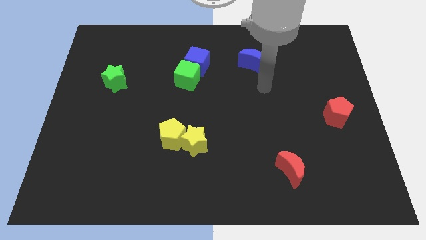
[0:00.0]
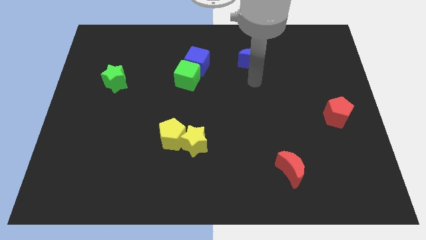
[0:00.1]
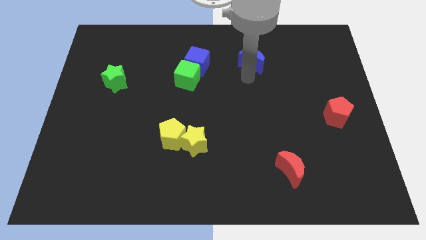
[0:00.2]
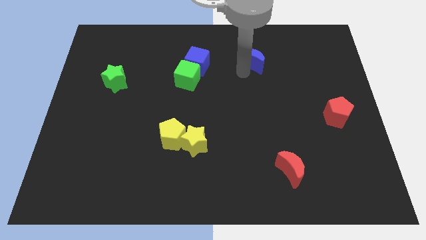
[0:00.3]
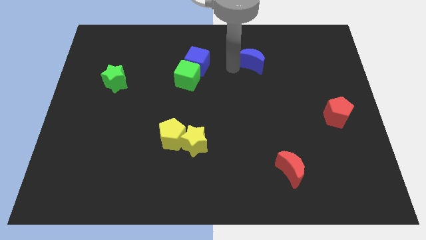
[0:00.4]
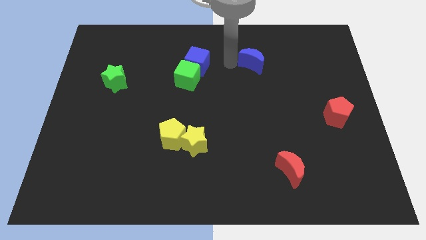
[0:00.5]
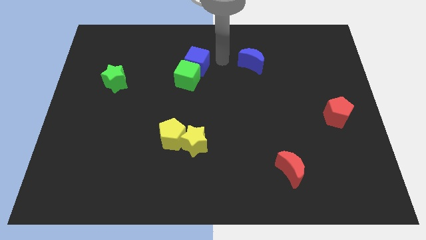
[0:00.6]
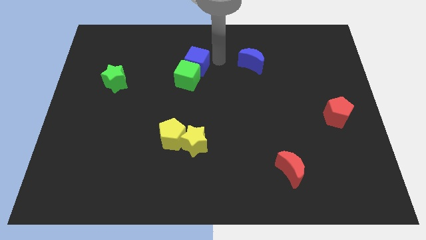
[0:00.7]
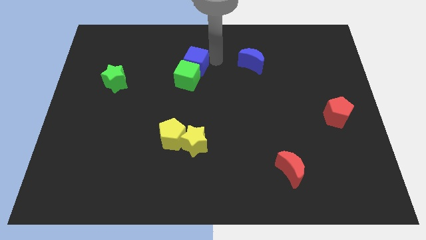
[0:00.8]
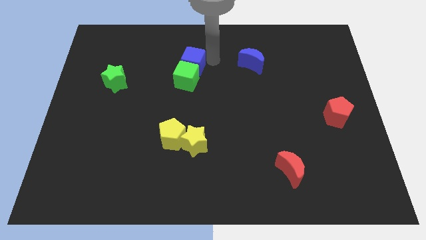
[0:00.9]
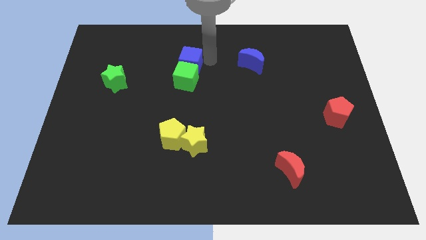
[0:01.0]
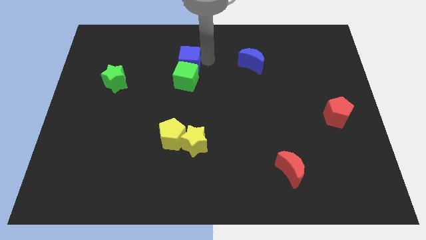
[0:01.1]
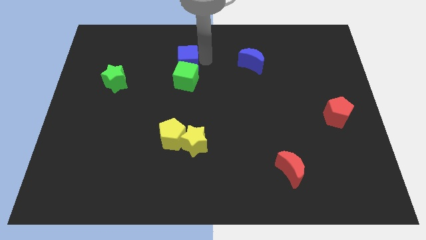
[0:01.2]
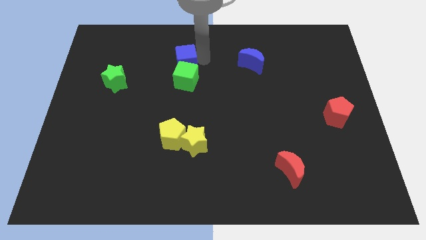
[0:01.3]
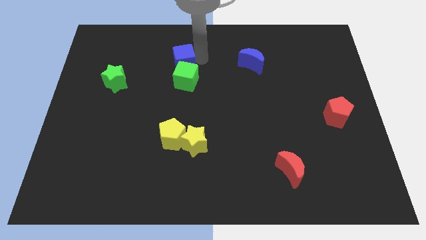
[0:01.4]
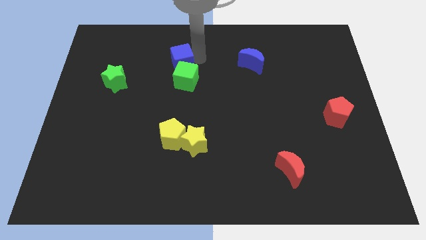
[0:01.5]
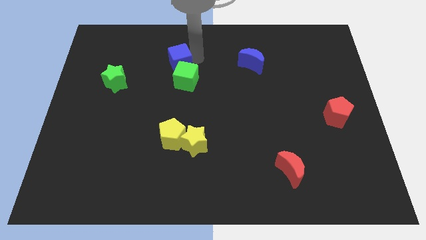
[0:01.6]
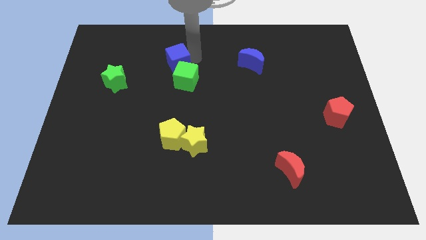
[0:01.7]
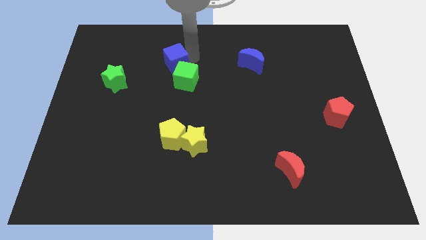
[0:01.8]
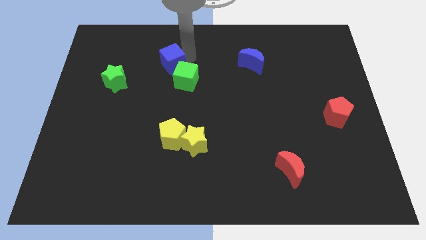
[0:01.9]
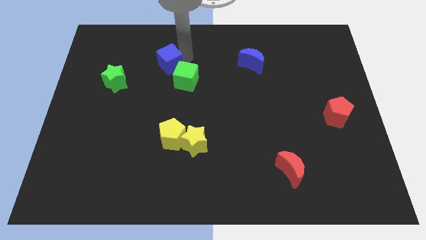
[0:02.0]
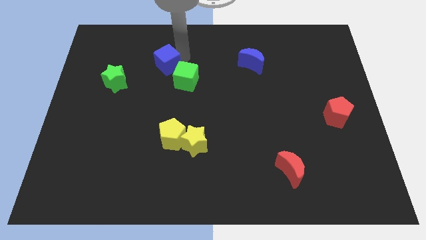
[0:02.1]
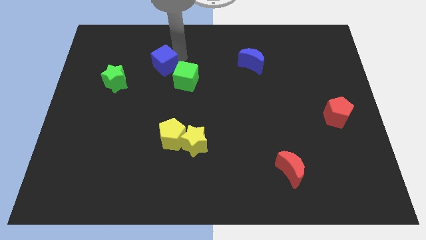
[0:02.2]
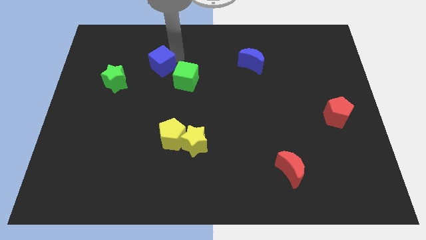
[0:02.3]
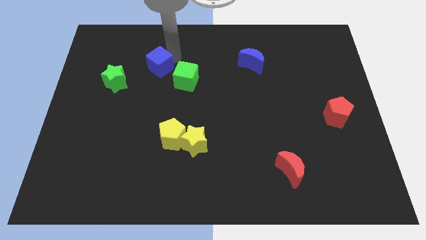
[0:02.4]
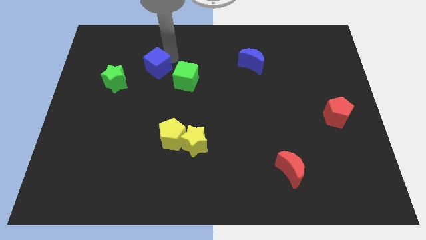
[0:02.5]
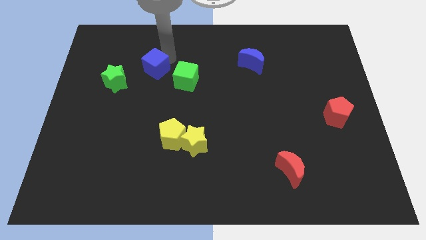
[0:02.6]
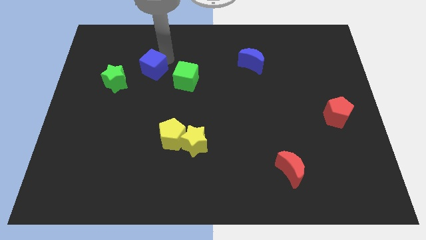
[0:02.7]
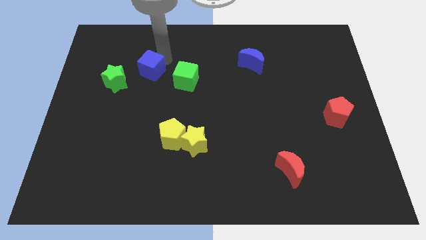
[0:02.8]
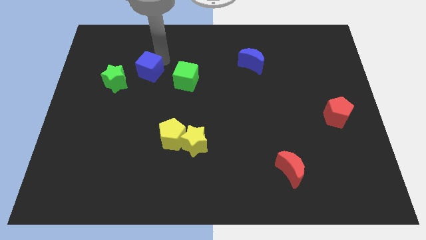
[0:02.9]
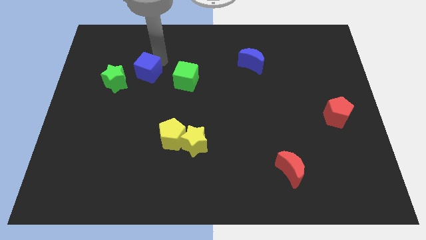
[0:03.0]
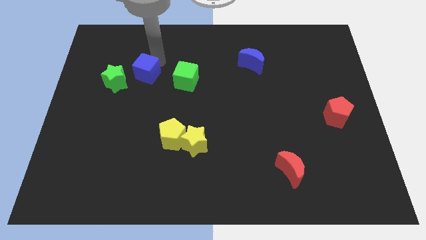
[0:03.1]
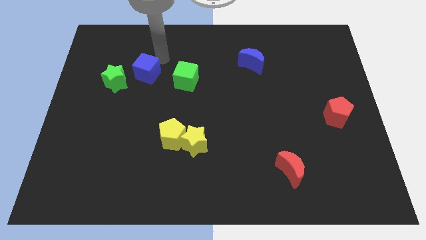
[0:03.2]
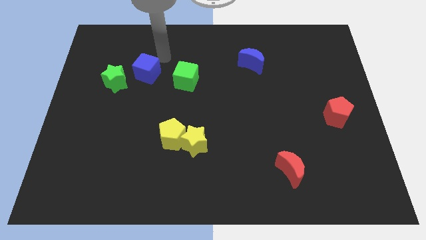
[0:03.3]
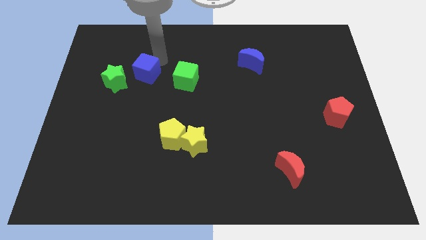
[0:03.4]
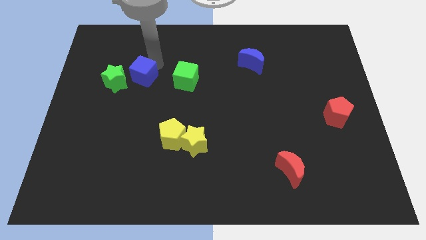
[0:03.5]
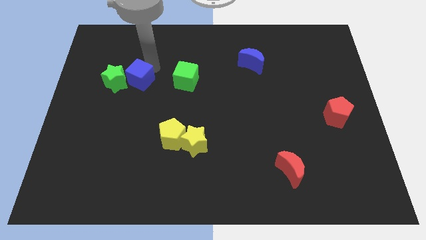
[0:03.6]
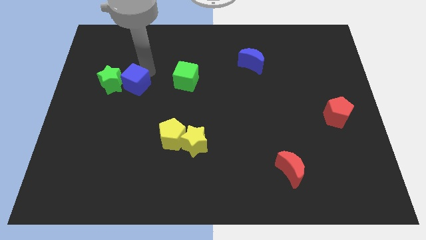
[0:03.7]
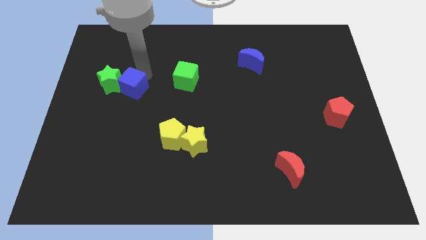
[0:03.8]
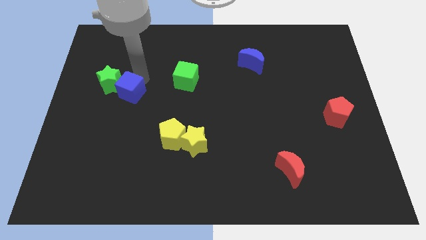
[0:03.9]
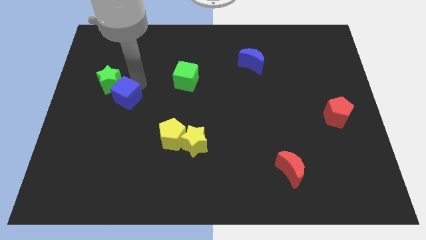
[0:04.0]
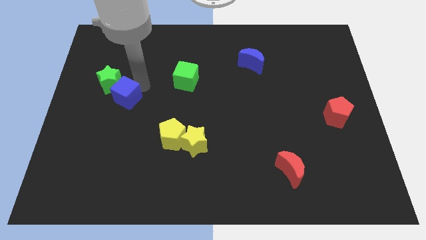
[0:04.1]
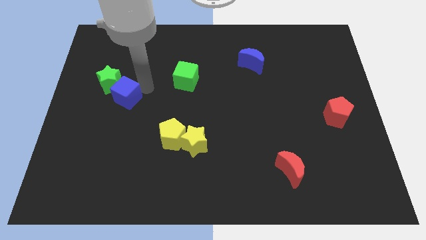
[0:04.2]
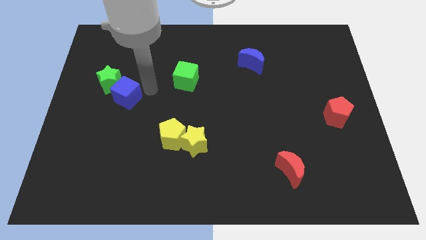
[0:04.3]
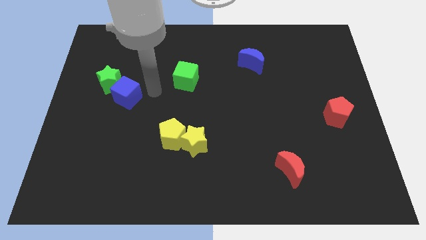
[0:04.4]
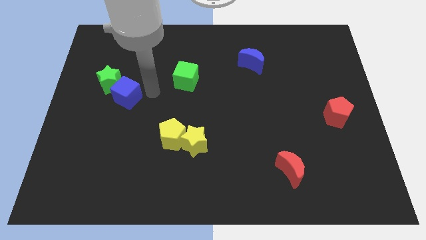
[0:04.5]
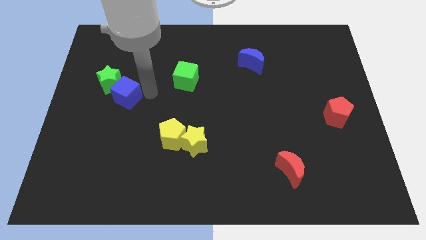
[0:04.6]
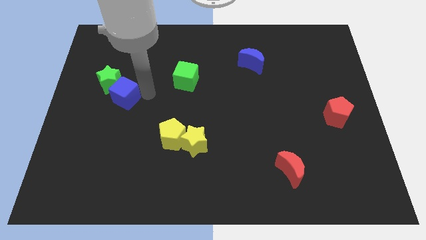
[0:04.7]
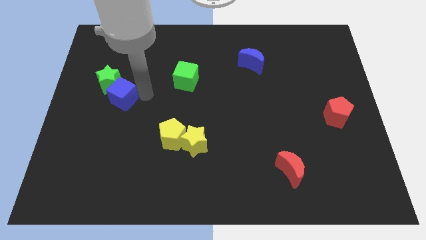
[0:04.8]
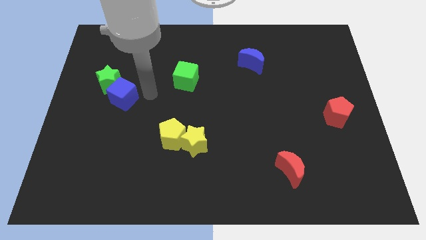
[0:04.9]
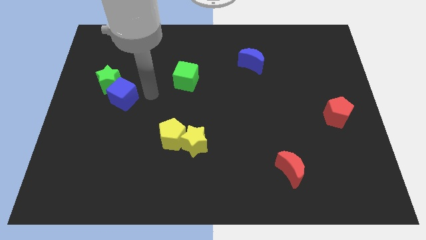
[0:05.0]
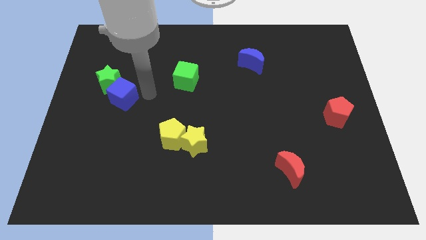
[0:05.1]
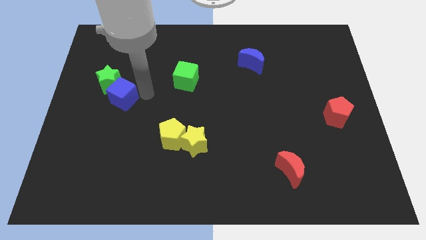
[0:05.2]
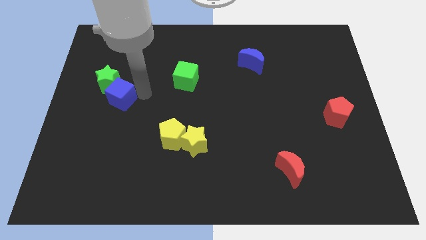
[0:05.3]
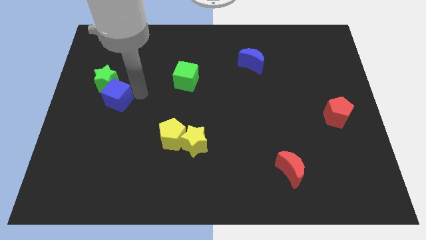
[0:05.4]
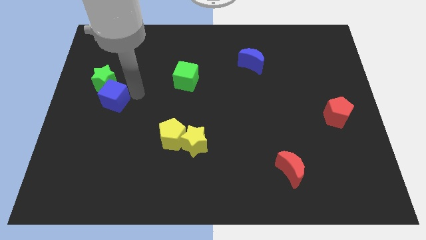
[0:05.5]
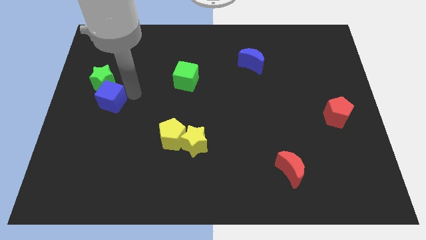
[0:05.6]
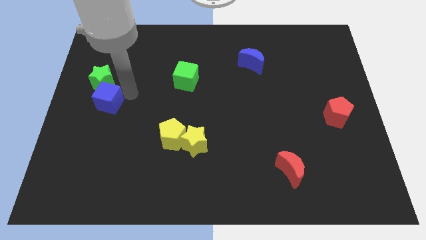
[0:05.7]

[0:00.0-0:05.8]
put the blue cube to the left side of the board

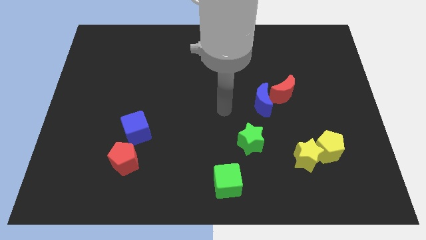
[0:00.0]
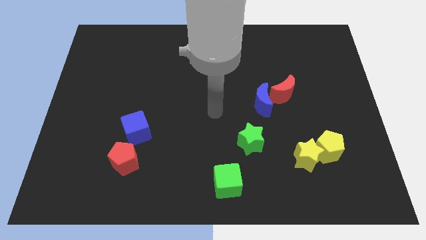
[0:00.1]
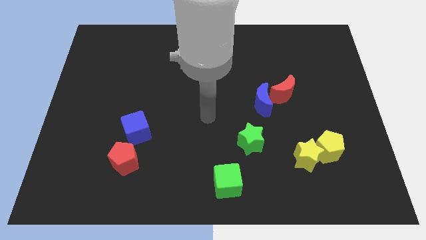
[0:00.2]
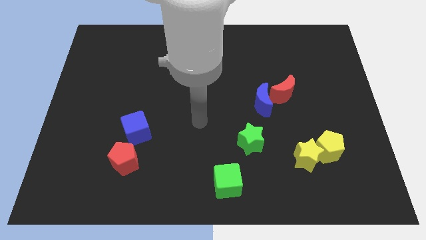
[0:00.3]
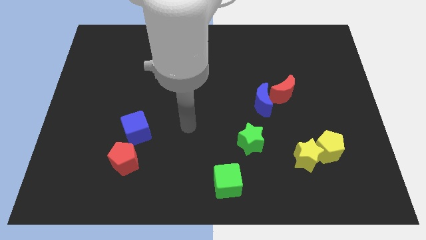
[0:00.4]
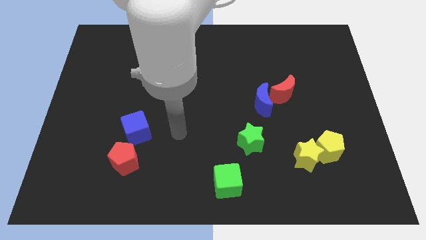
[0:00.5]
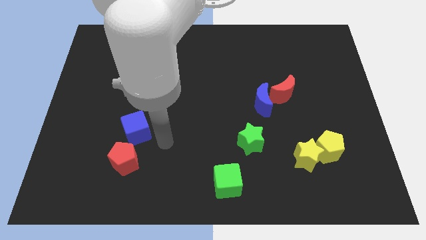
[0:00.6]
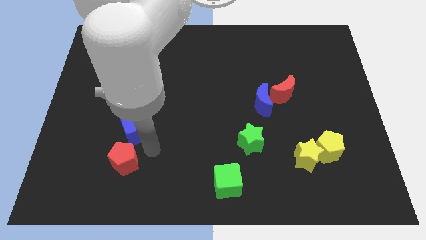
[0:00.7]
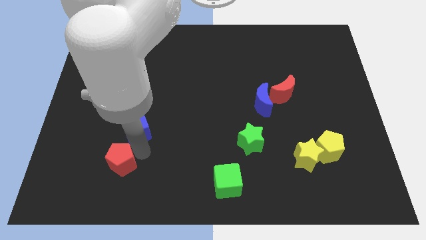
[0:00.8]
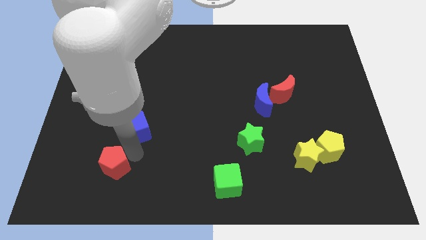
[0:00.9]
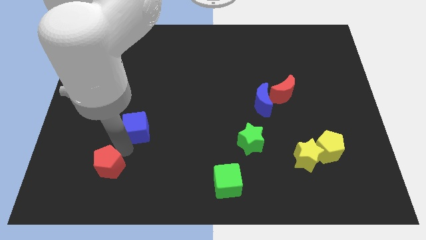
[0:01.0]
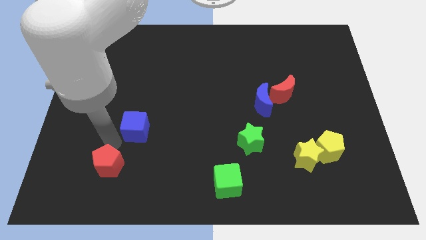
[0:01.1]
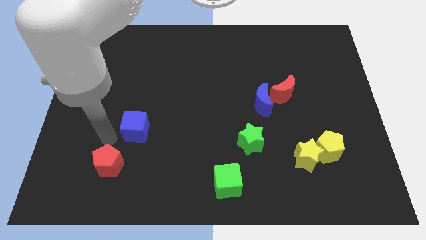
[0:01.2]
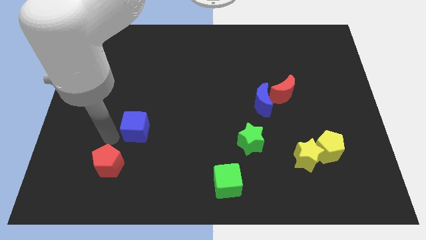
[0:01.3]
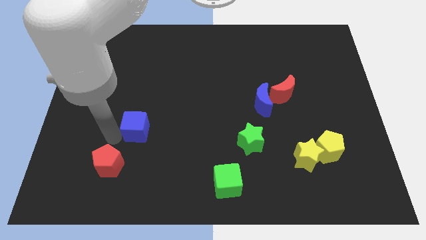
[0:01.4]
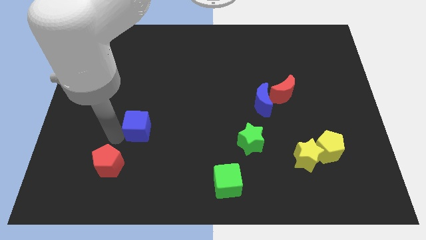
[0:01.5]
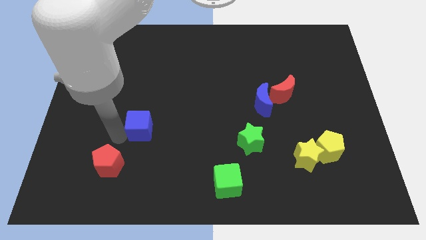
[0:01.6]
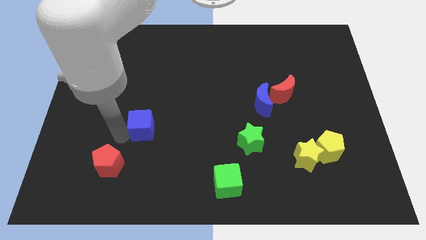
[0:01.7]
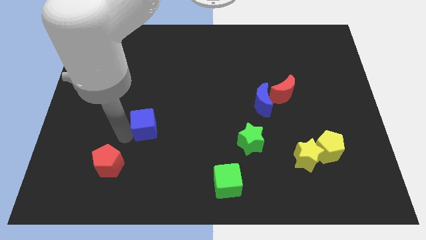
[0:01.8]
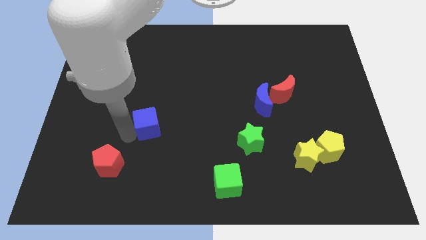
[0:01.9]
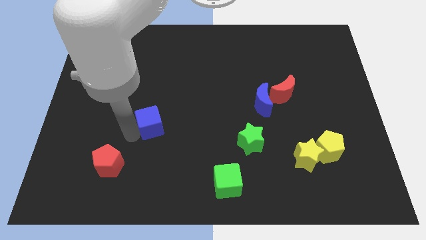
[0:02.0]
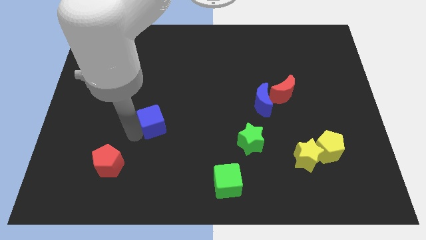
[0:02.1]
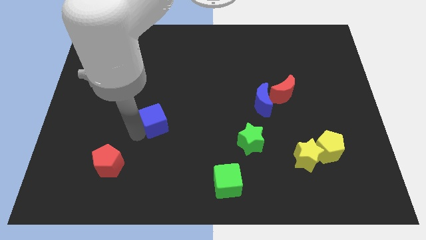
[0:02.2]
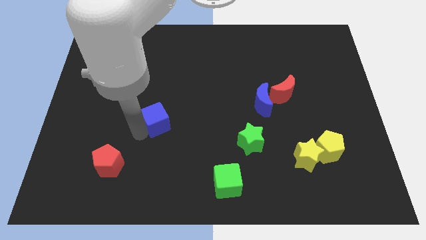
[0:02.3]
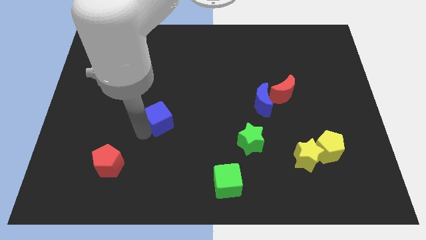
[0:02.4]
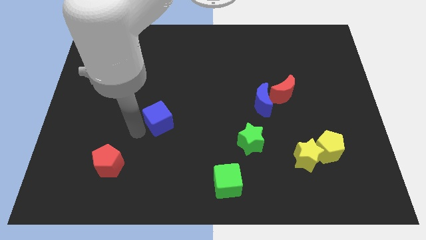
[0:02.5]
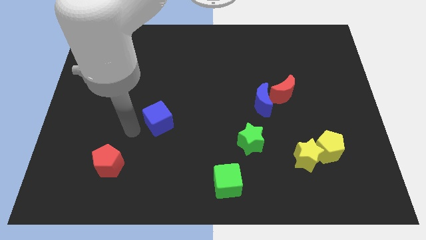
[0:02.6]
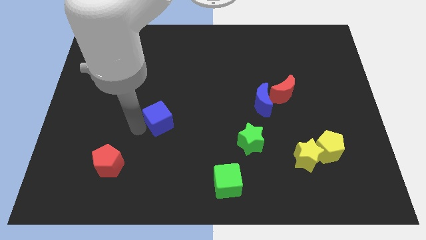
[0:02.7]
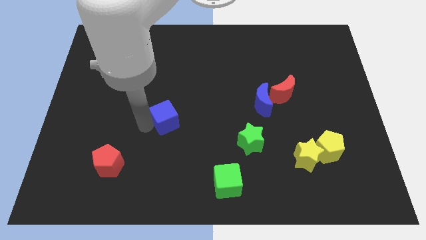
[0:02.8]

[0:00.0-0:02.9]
push the blue cube to the middle of the board
